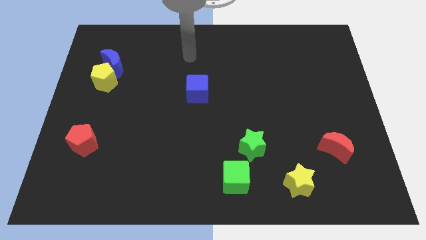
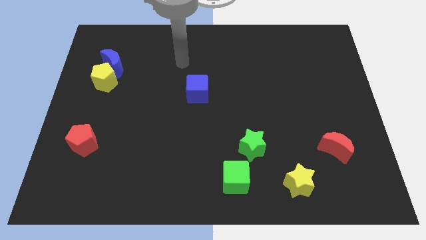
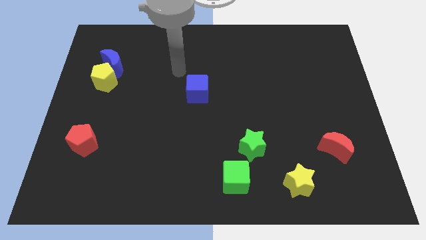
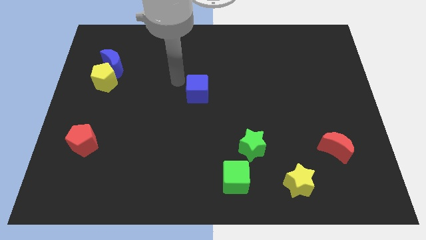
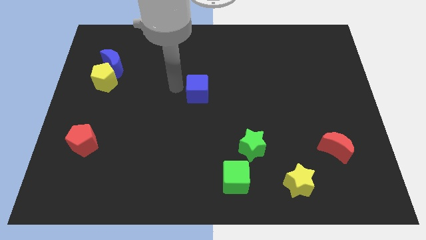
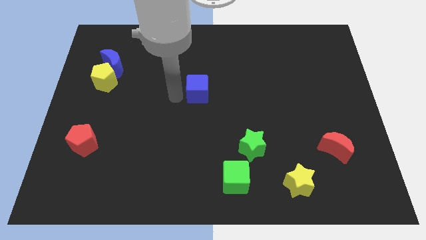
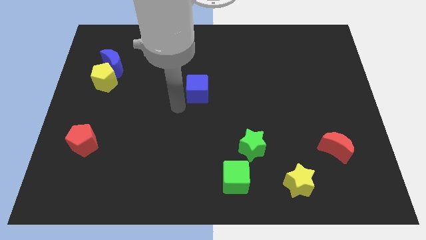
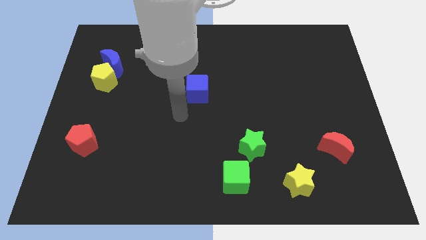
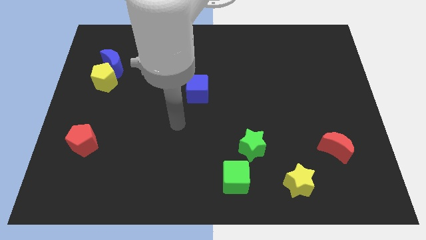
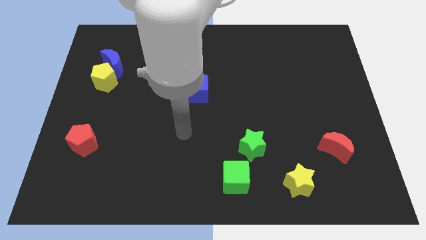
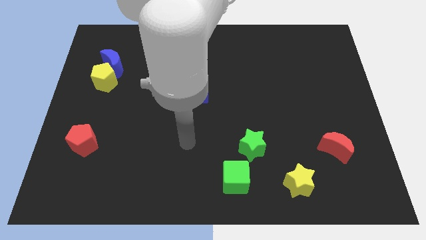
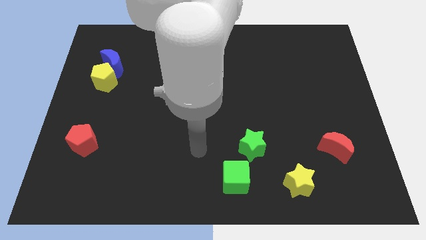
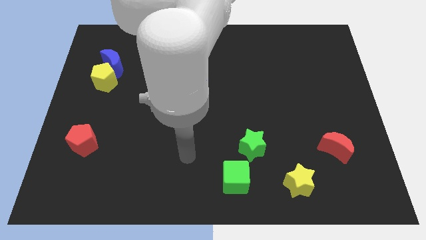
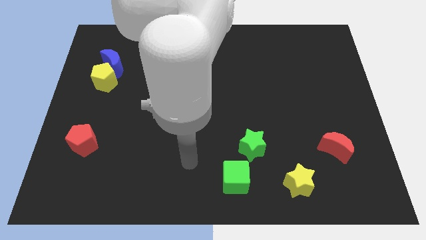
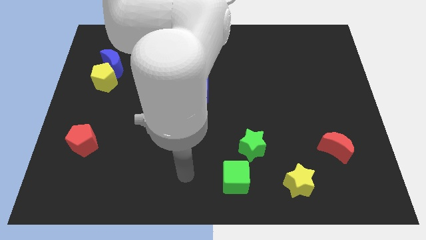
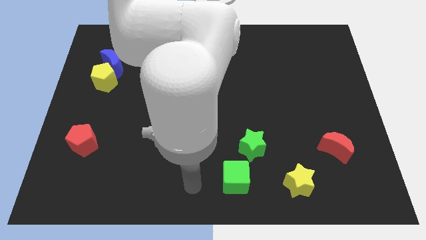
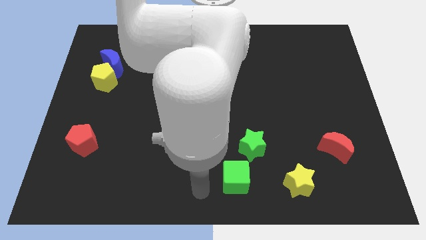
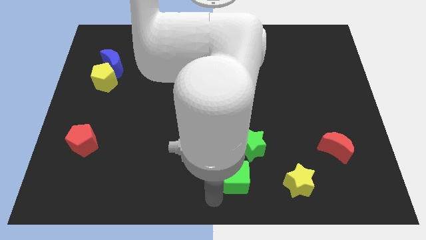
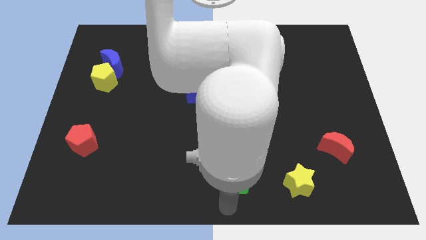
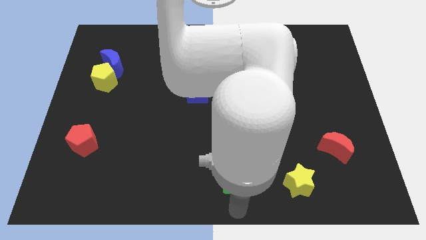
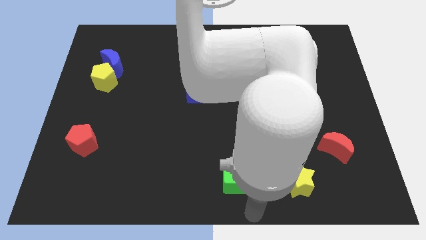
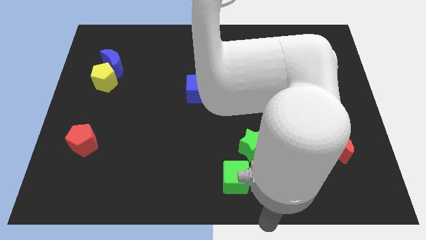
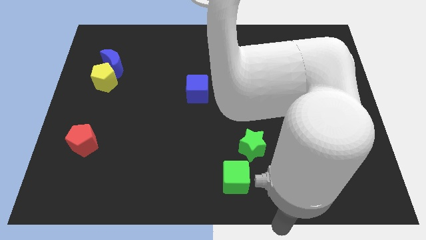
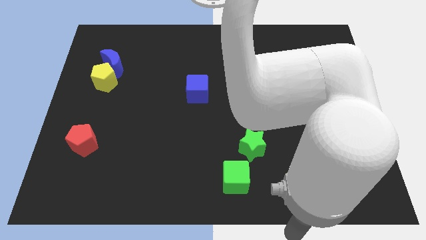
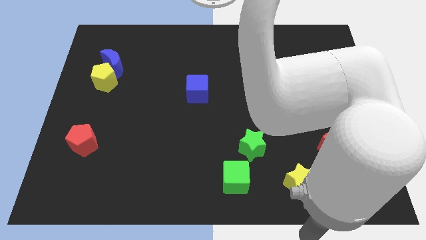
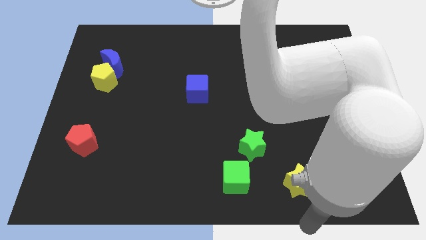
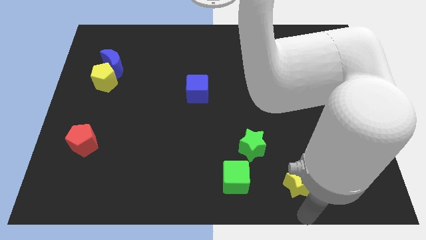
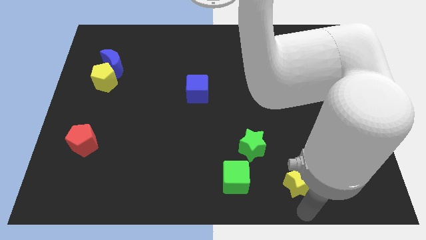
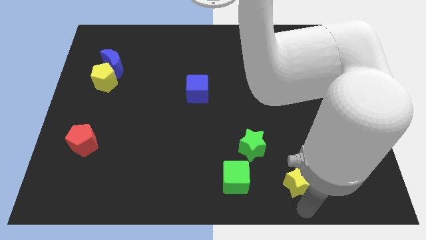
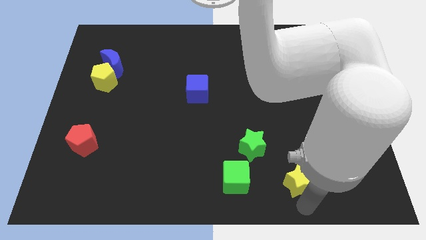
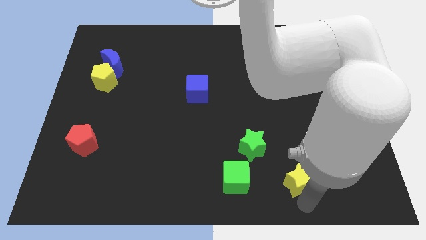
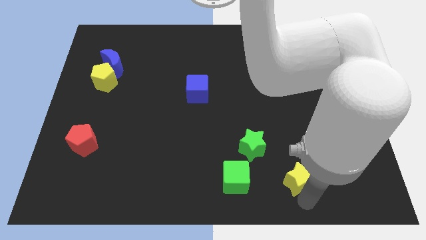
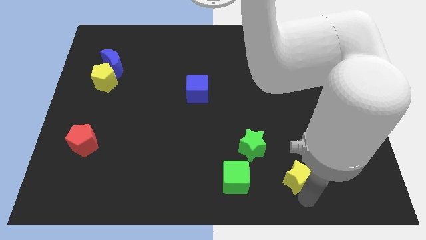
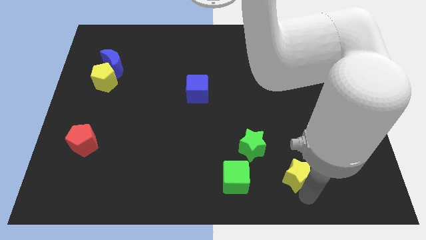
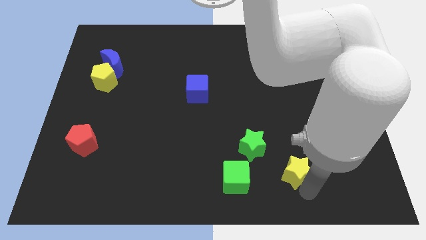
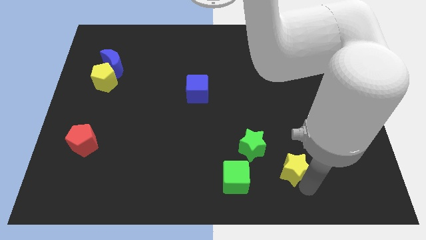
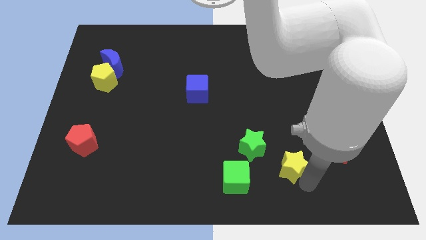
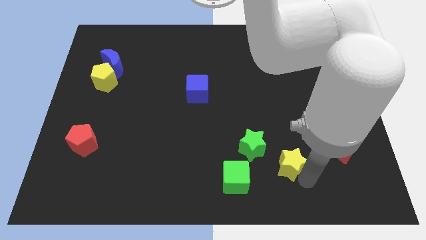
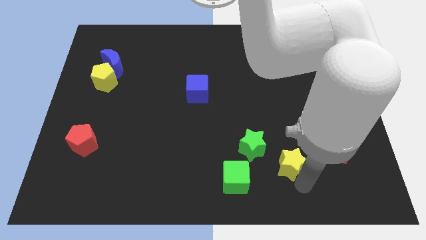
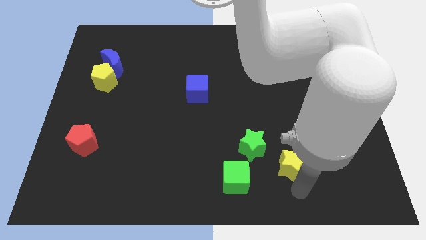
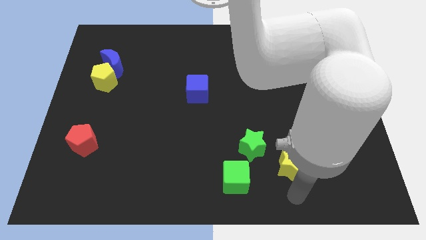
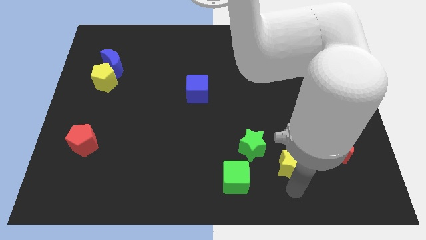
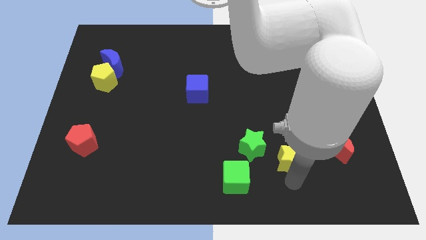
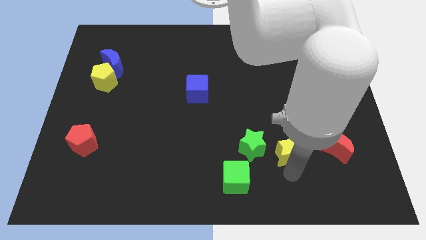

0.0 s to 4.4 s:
slightly move the yellow star upwards

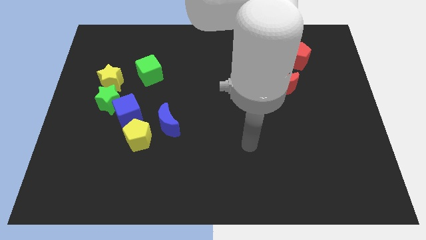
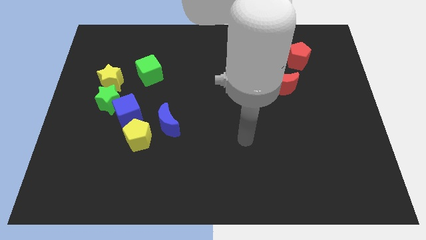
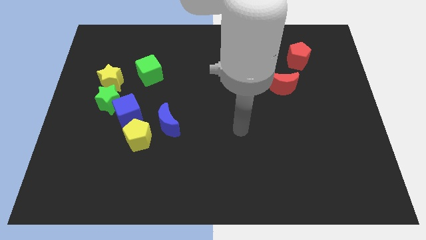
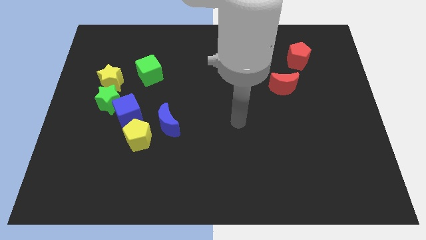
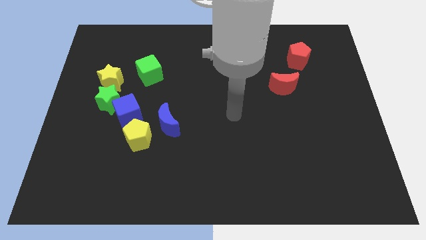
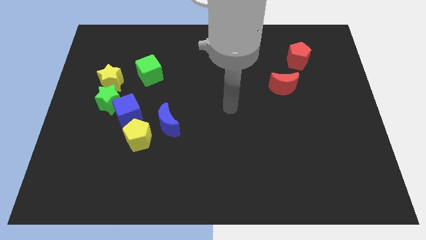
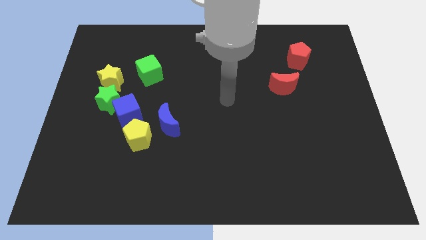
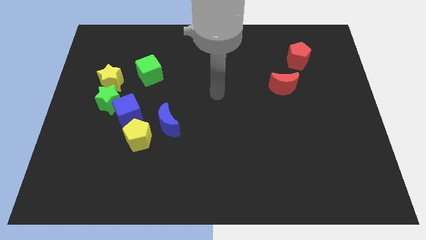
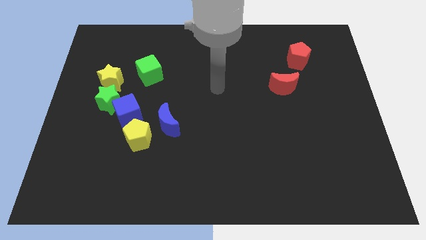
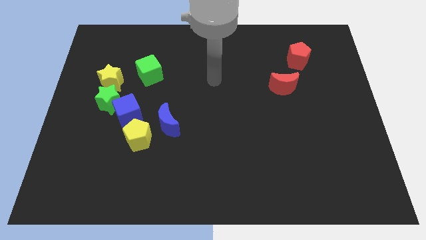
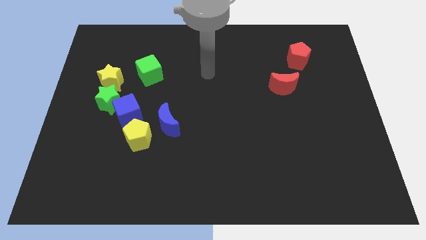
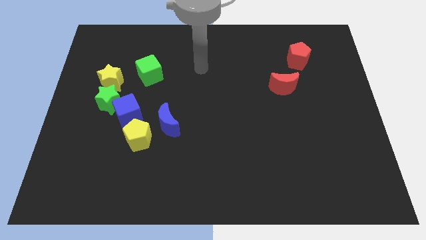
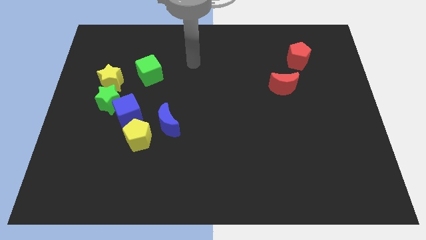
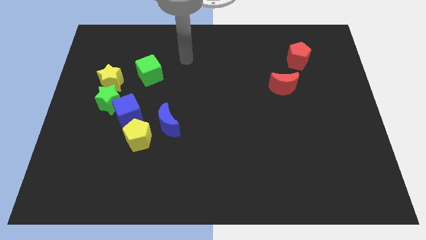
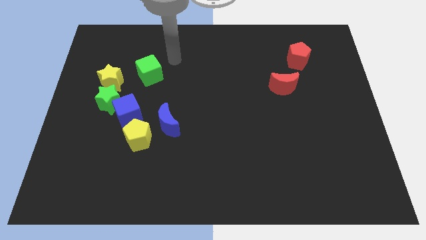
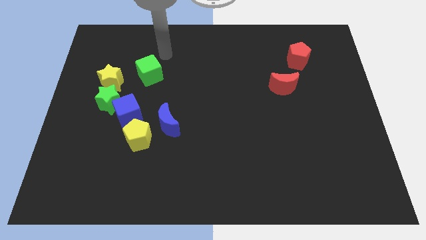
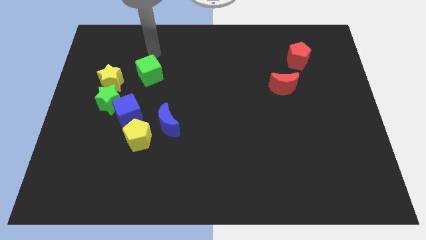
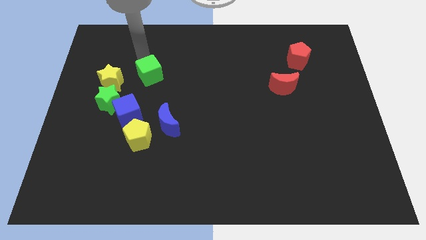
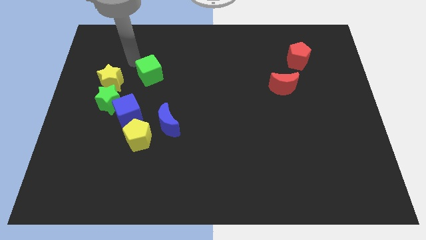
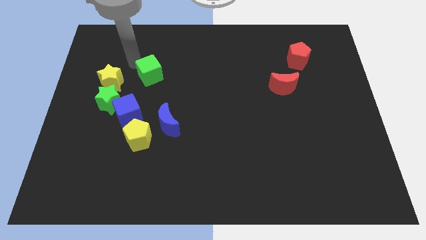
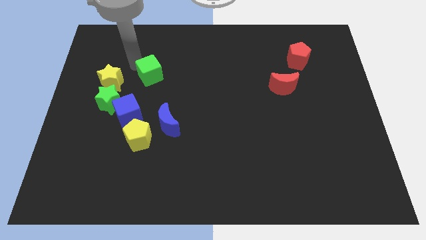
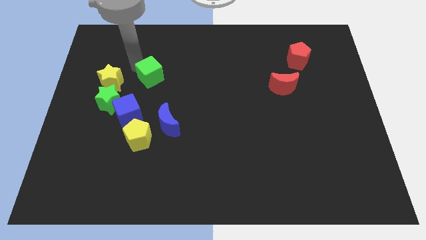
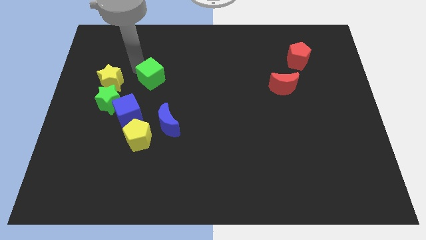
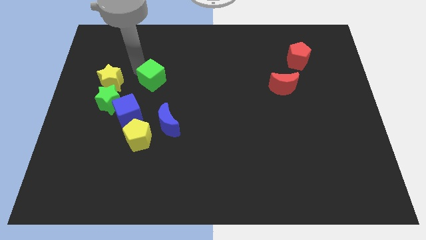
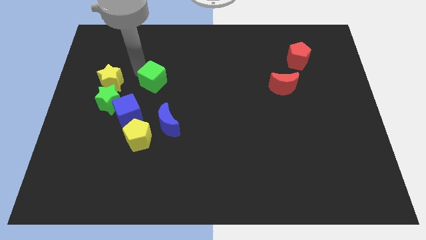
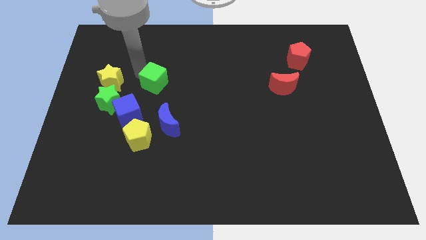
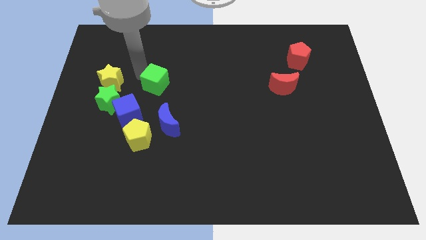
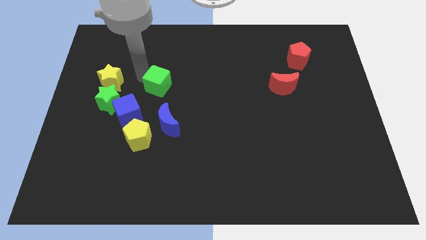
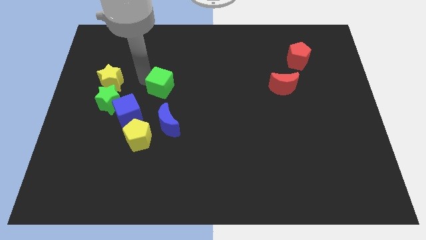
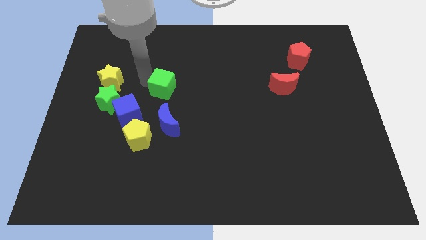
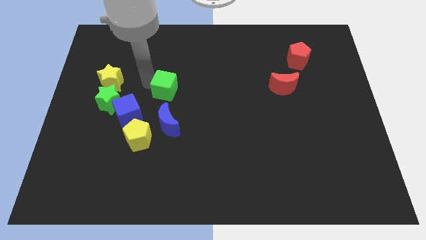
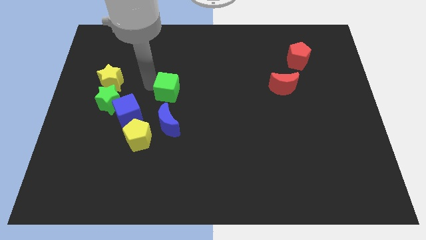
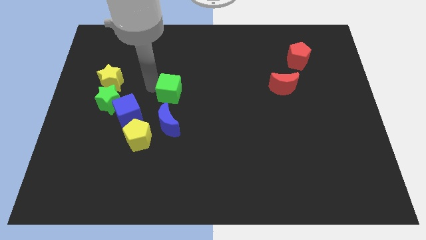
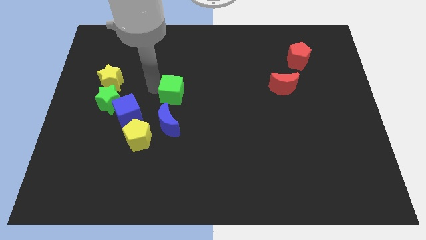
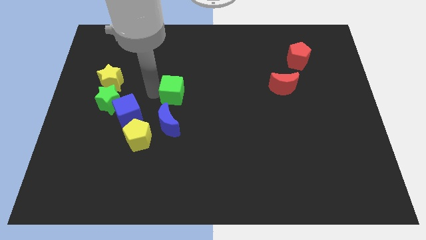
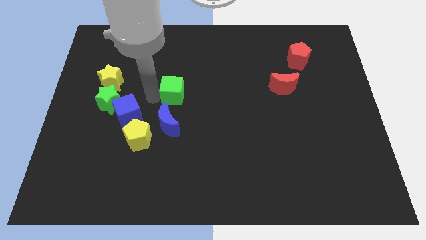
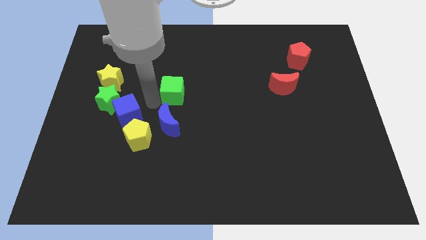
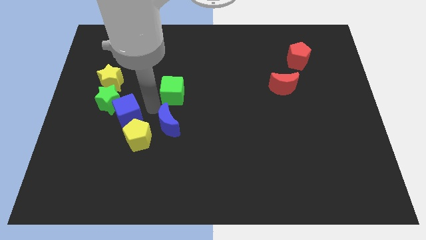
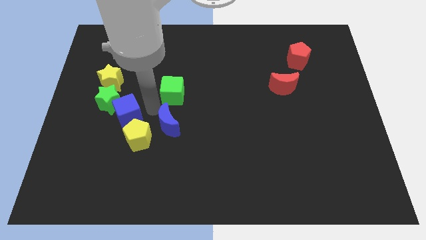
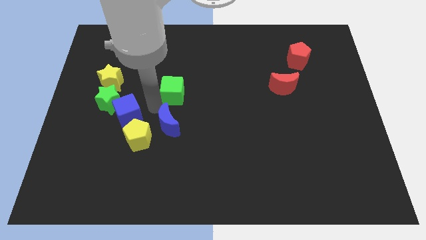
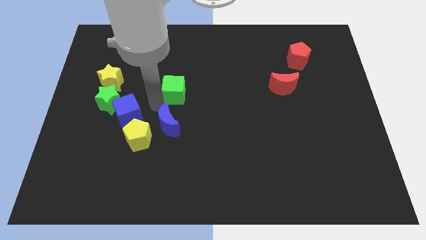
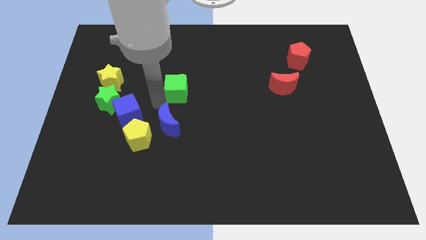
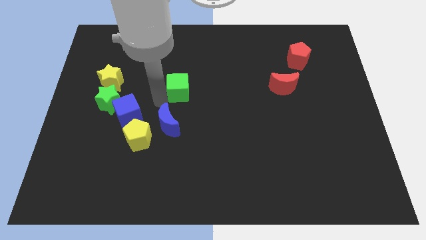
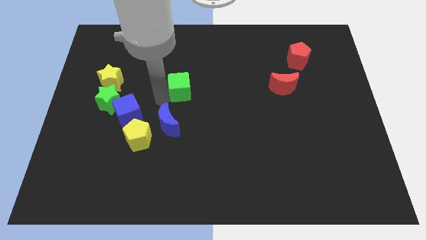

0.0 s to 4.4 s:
push the green cube to the right a little
